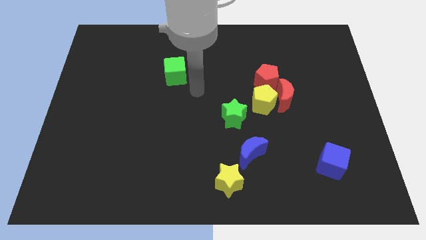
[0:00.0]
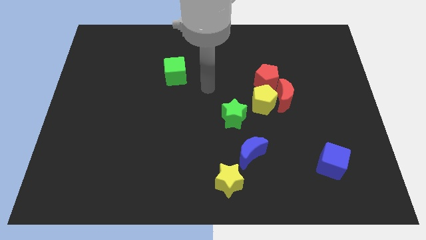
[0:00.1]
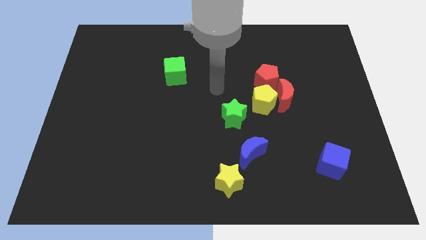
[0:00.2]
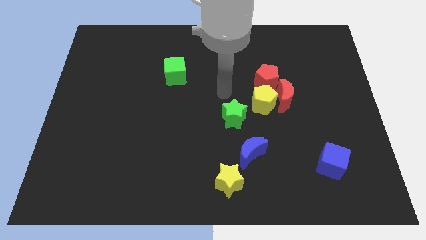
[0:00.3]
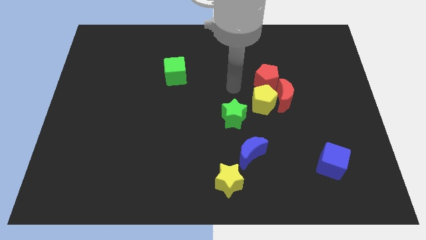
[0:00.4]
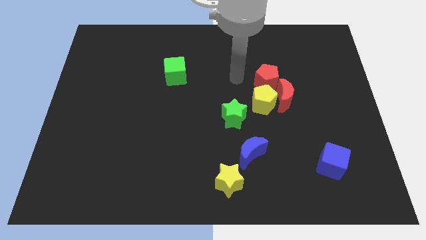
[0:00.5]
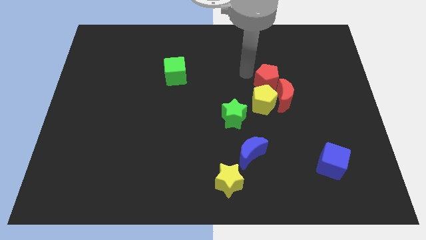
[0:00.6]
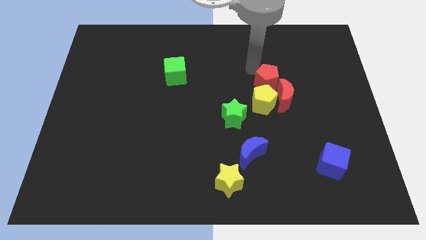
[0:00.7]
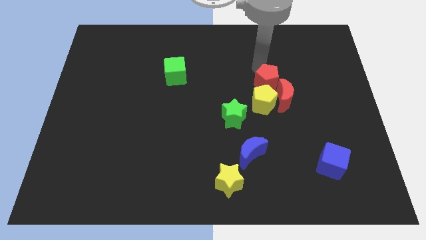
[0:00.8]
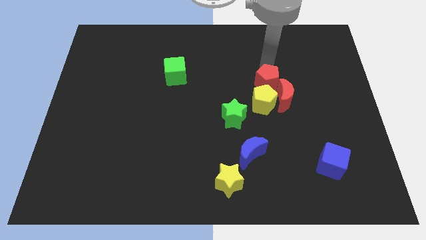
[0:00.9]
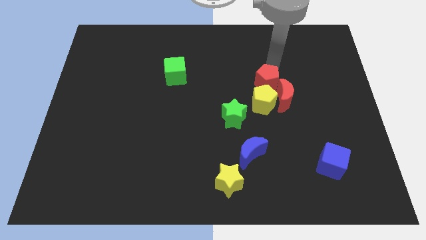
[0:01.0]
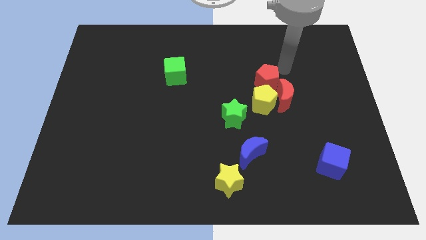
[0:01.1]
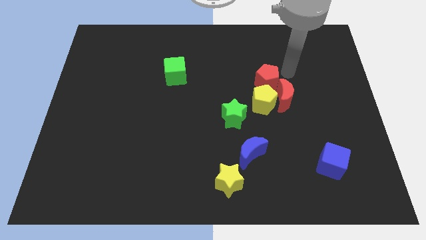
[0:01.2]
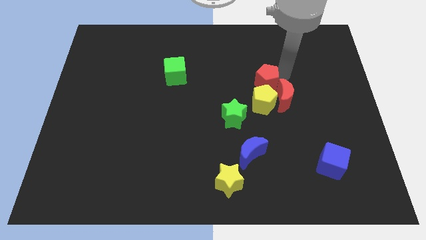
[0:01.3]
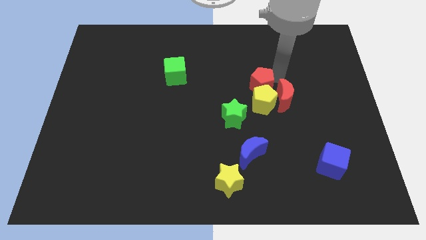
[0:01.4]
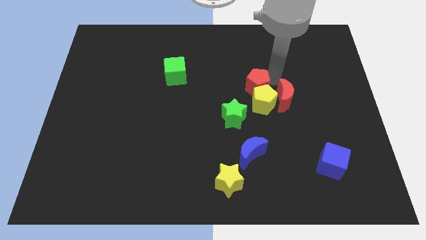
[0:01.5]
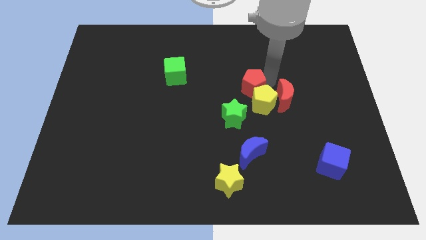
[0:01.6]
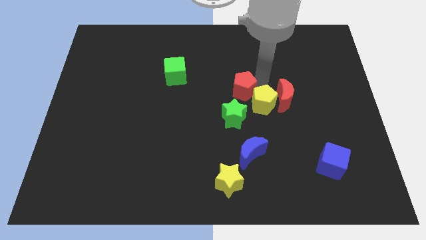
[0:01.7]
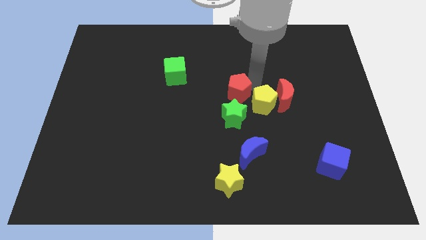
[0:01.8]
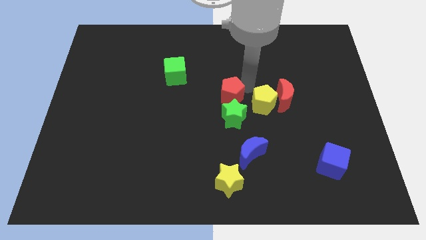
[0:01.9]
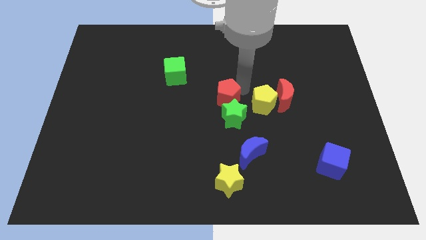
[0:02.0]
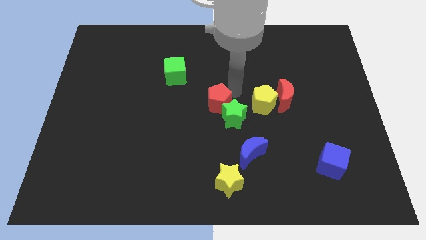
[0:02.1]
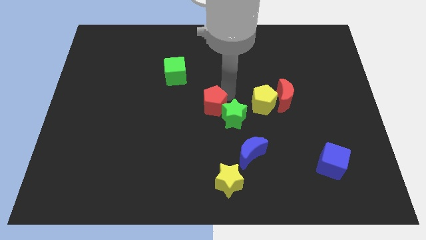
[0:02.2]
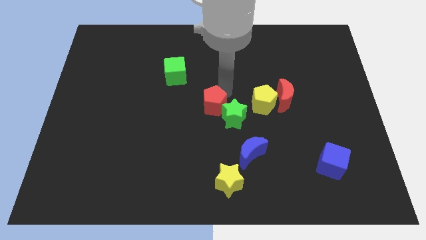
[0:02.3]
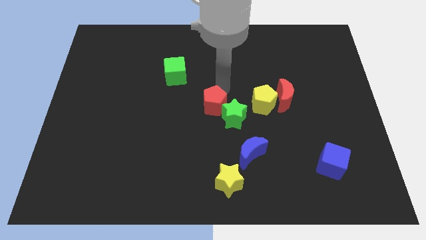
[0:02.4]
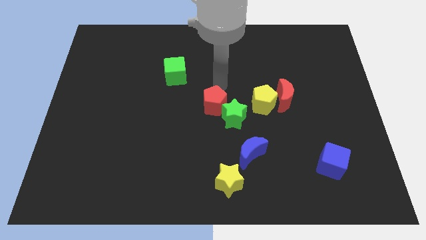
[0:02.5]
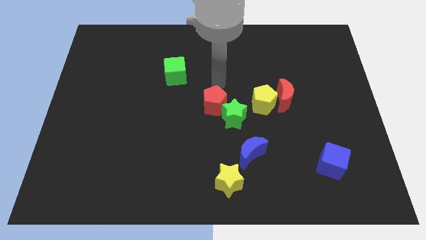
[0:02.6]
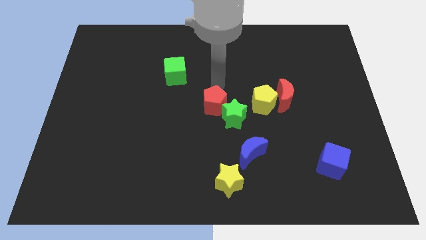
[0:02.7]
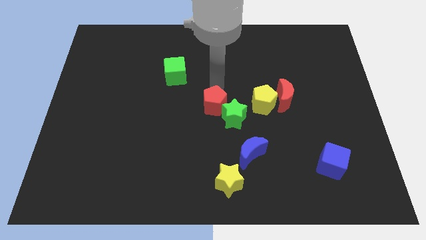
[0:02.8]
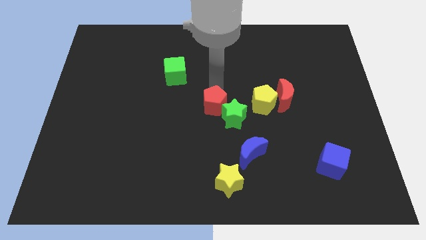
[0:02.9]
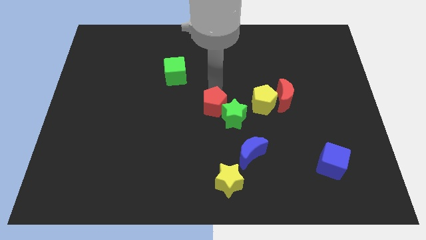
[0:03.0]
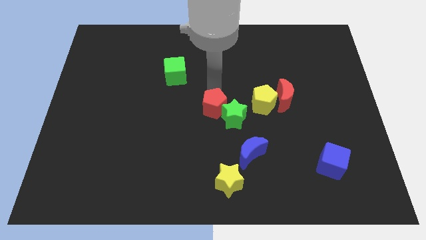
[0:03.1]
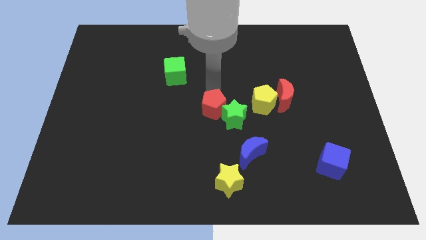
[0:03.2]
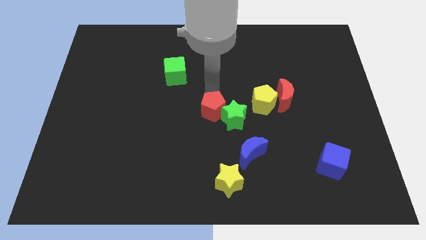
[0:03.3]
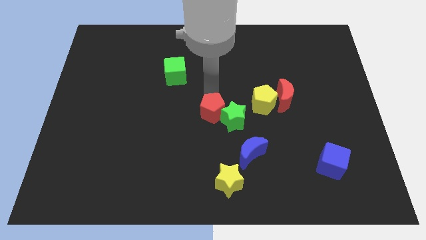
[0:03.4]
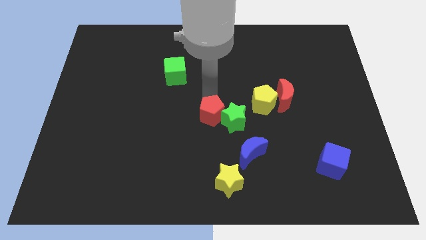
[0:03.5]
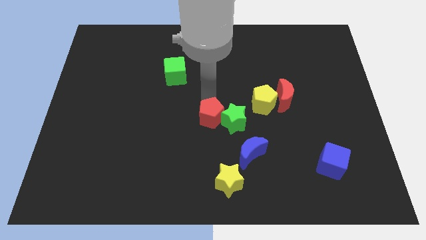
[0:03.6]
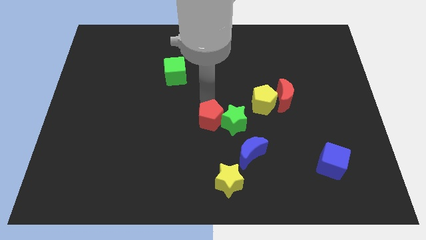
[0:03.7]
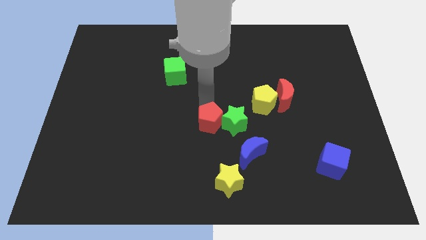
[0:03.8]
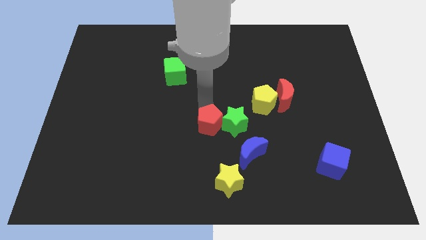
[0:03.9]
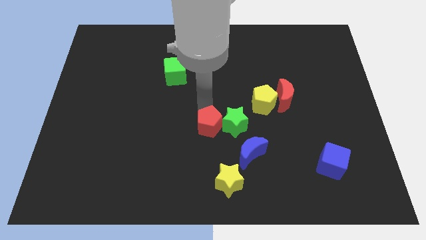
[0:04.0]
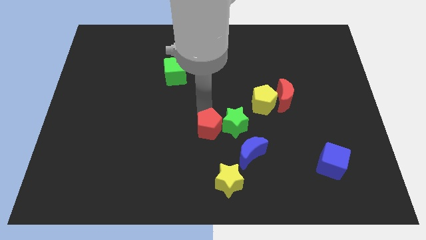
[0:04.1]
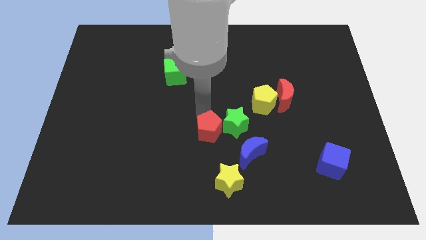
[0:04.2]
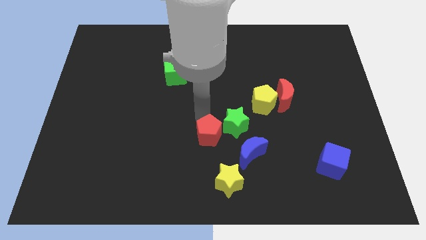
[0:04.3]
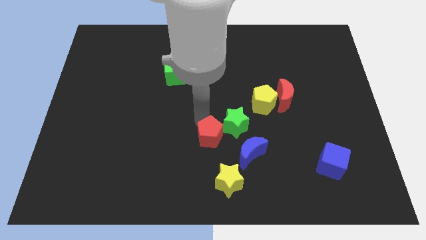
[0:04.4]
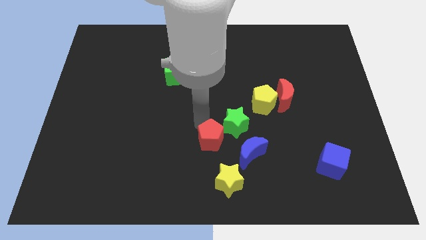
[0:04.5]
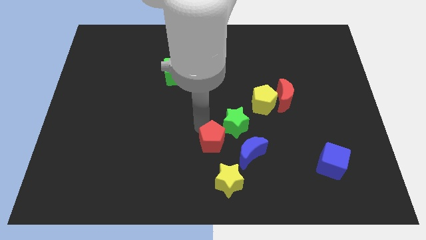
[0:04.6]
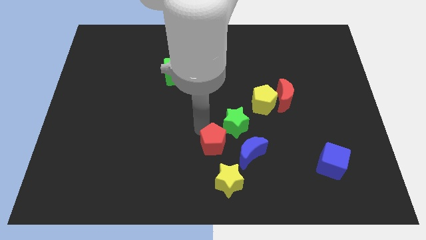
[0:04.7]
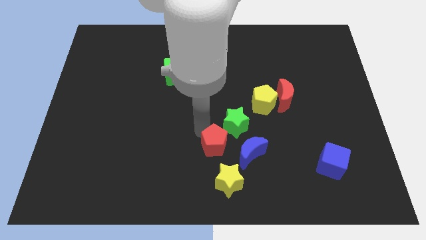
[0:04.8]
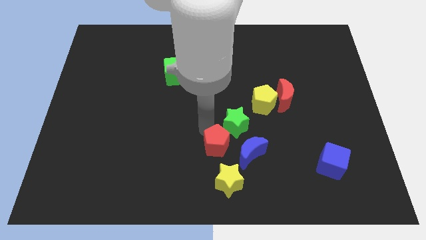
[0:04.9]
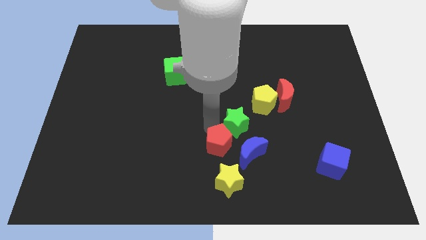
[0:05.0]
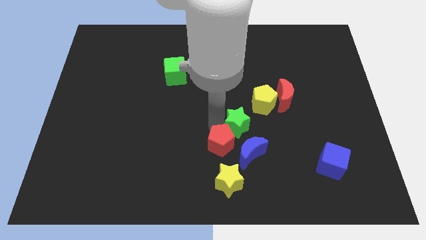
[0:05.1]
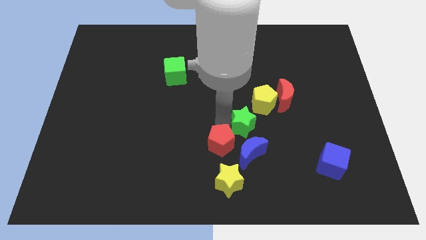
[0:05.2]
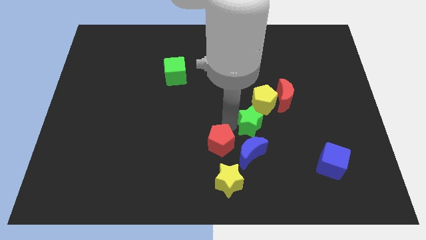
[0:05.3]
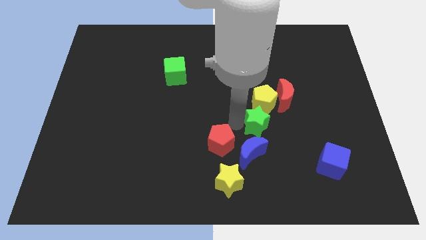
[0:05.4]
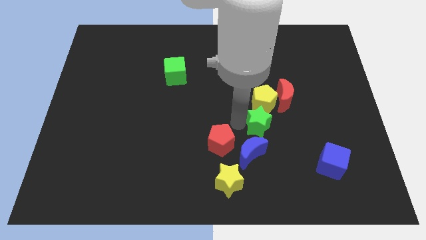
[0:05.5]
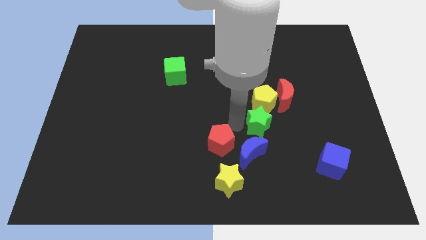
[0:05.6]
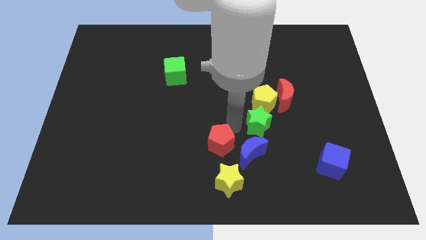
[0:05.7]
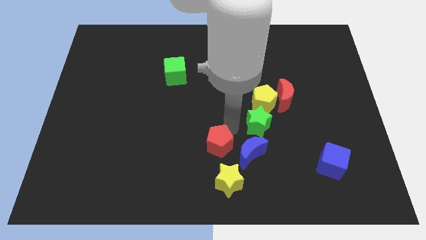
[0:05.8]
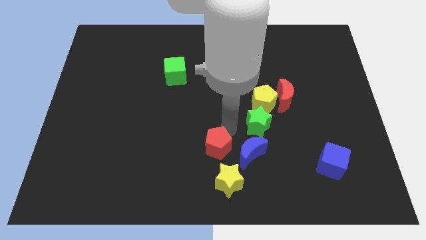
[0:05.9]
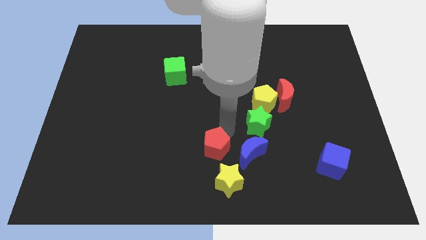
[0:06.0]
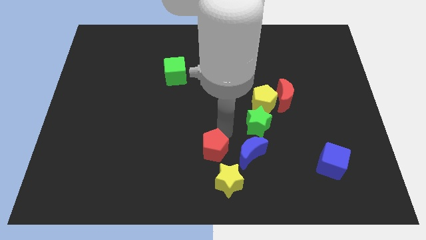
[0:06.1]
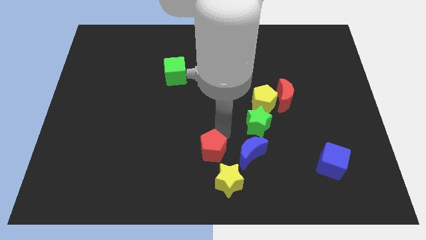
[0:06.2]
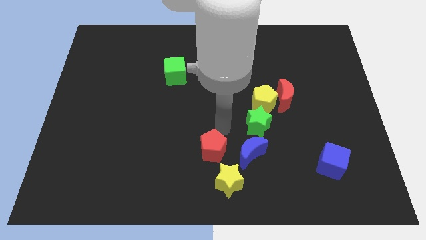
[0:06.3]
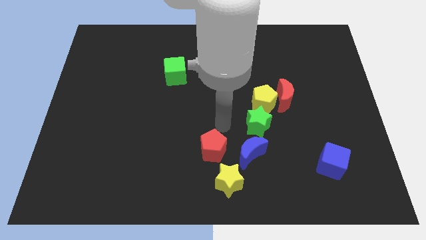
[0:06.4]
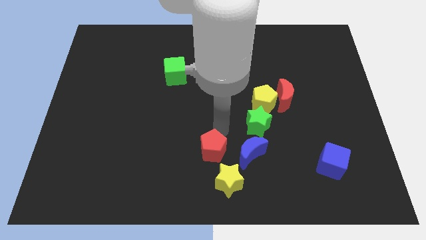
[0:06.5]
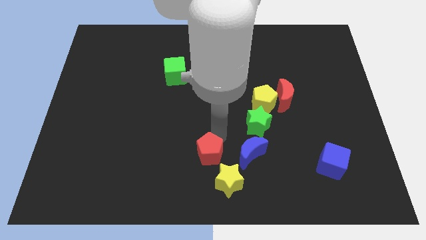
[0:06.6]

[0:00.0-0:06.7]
move the red pentagon to the bottom
